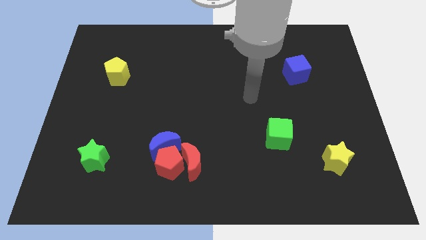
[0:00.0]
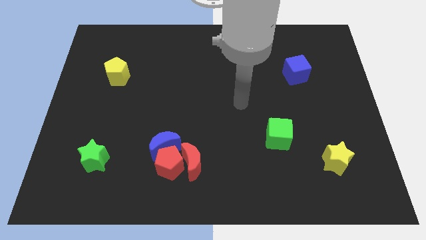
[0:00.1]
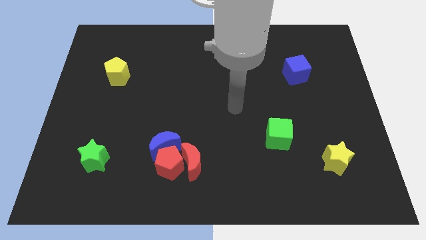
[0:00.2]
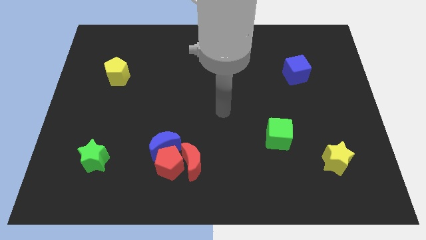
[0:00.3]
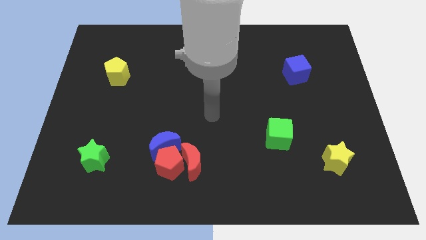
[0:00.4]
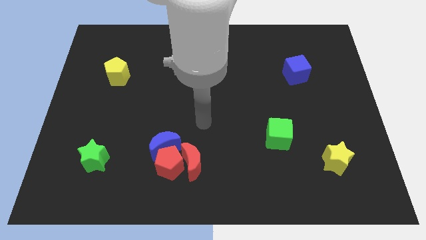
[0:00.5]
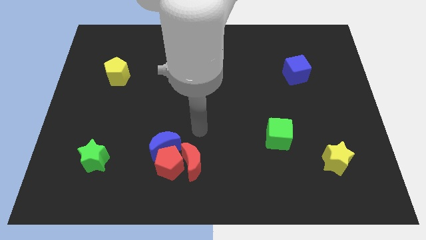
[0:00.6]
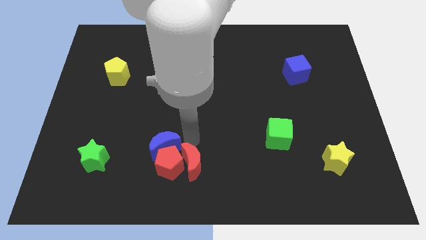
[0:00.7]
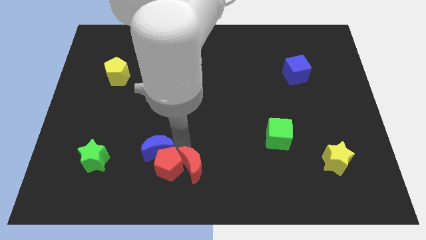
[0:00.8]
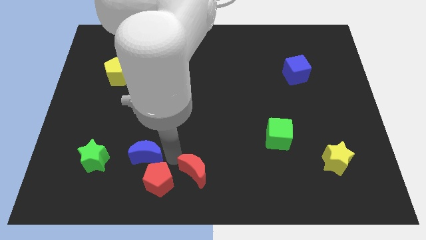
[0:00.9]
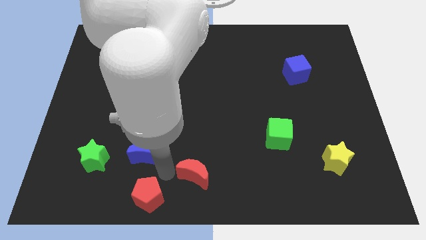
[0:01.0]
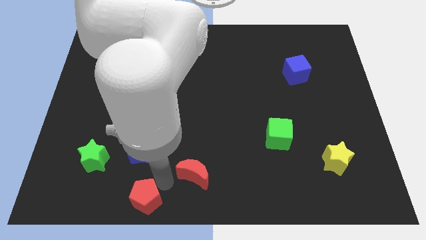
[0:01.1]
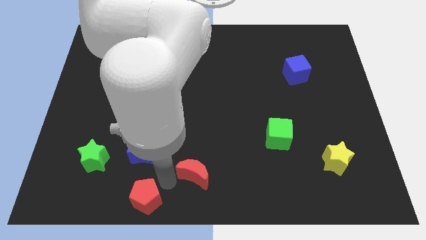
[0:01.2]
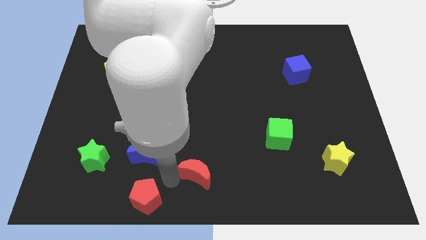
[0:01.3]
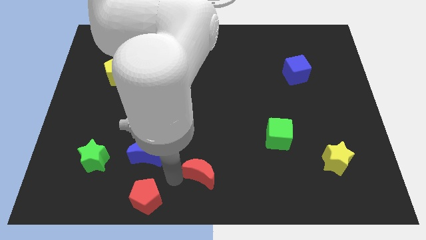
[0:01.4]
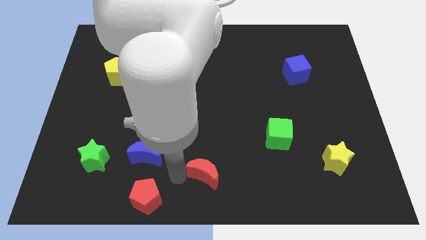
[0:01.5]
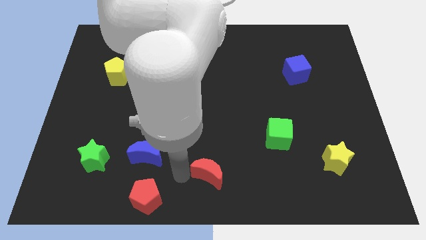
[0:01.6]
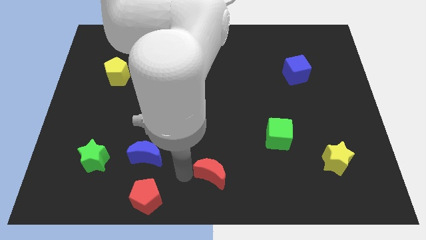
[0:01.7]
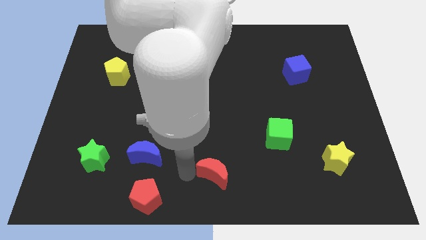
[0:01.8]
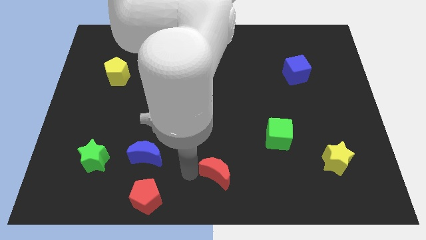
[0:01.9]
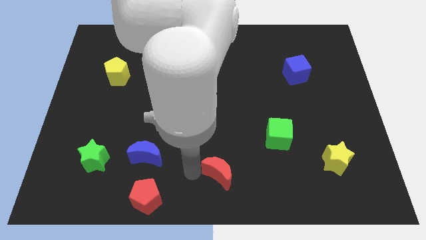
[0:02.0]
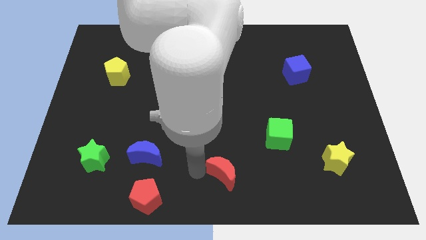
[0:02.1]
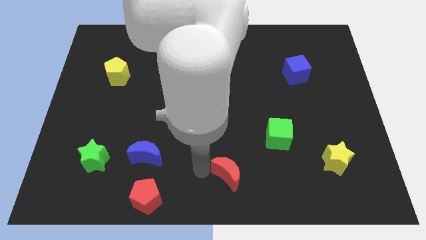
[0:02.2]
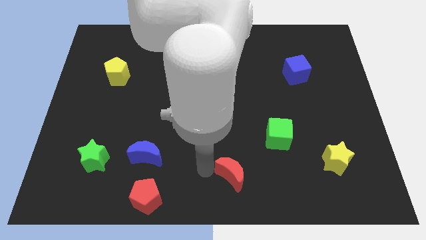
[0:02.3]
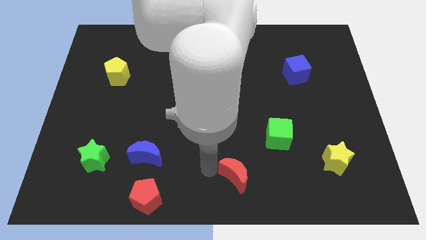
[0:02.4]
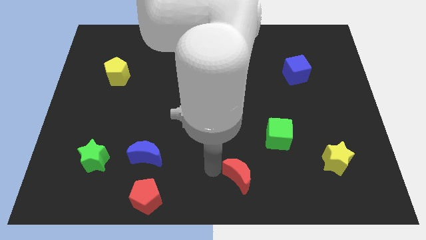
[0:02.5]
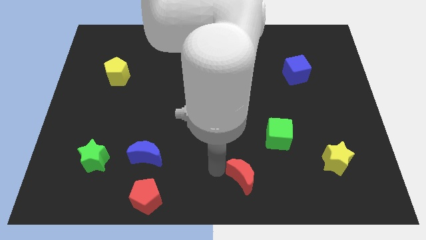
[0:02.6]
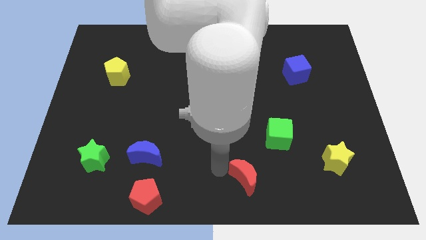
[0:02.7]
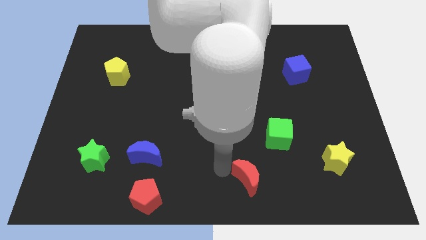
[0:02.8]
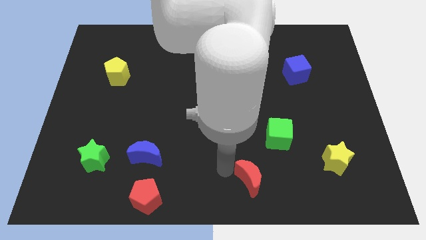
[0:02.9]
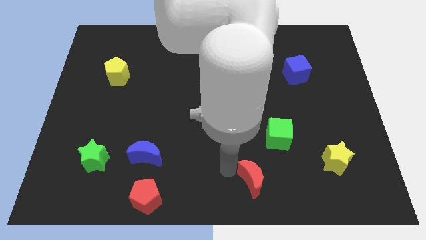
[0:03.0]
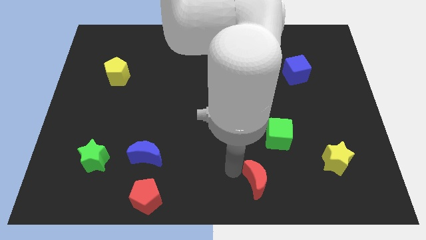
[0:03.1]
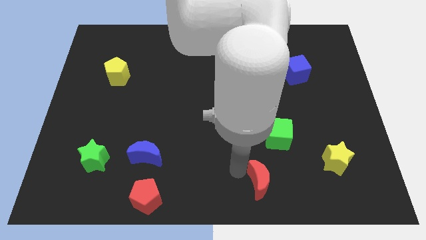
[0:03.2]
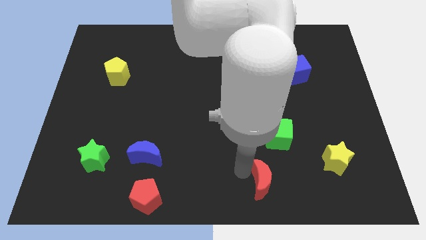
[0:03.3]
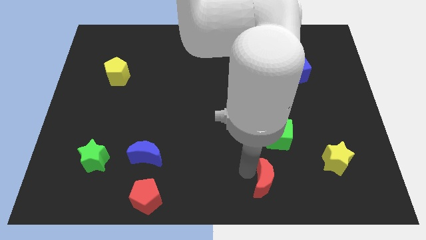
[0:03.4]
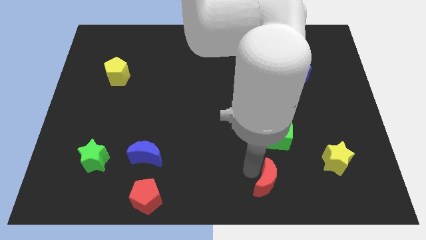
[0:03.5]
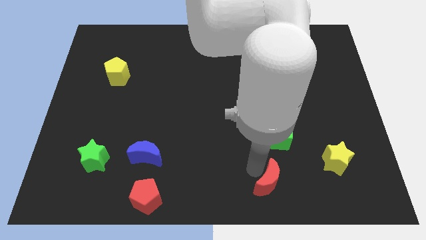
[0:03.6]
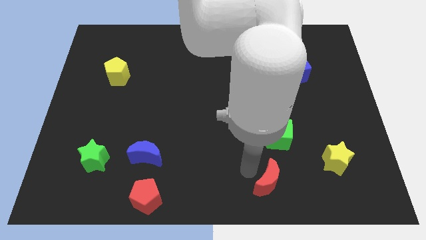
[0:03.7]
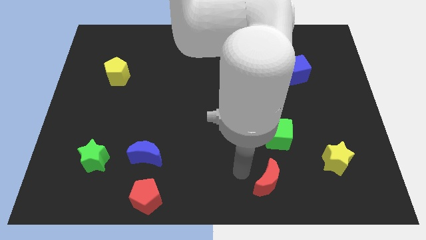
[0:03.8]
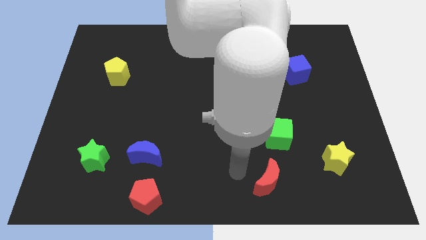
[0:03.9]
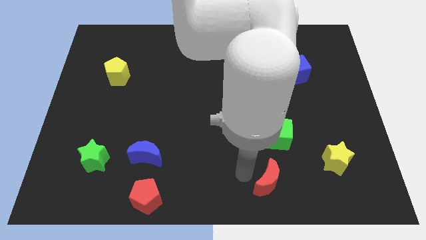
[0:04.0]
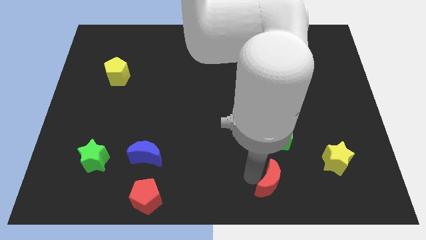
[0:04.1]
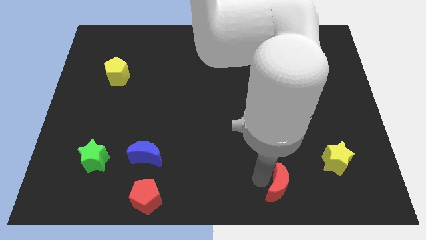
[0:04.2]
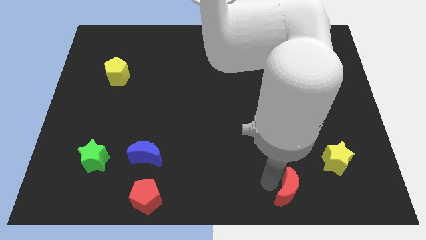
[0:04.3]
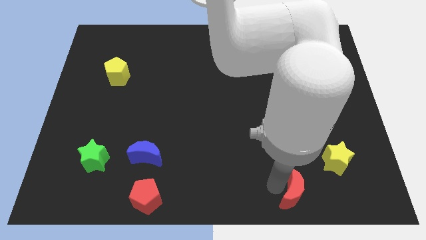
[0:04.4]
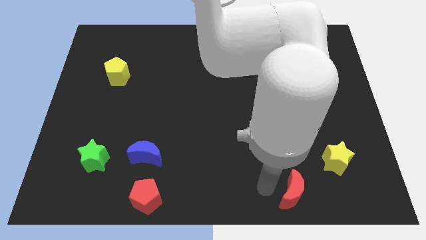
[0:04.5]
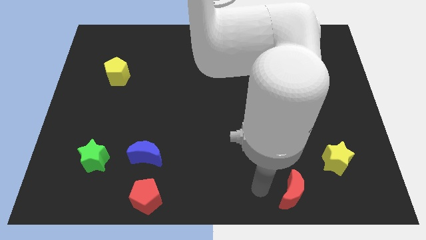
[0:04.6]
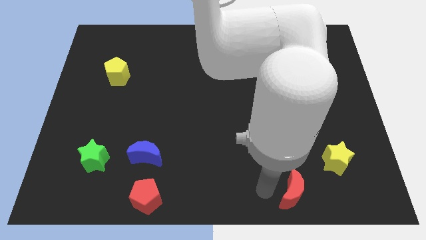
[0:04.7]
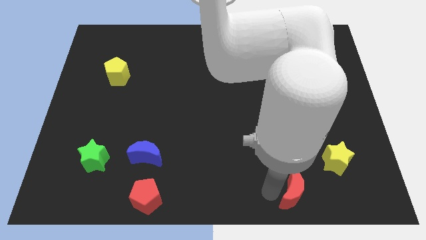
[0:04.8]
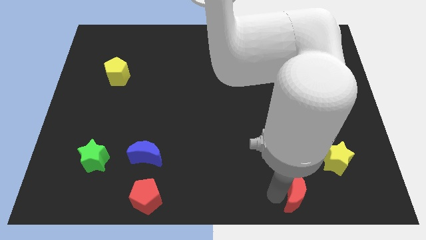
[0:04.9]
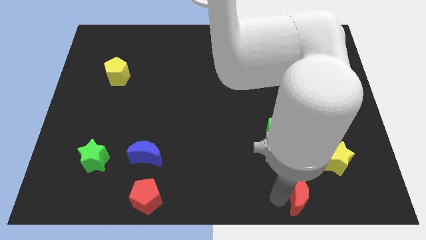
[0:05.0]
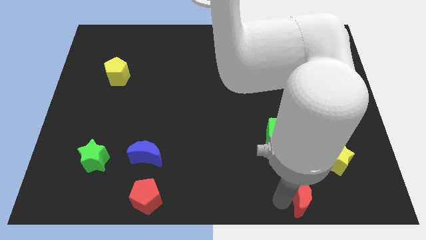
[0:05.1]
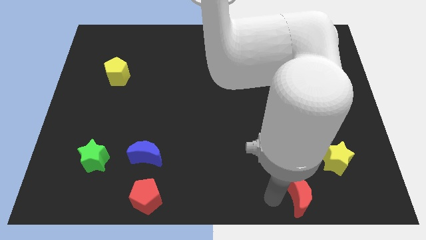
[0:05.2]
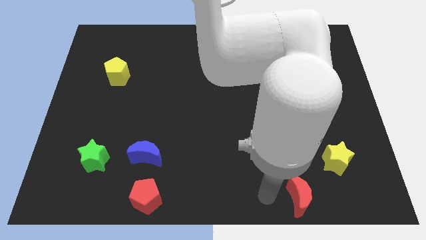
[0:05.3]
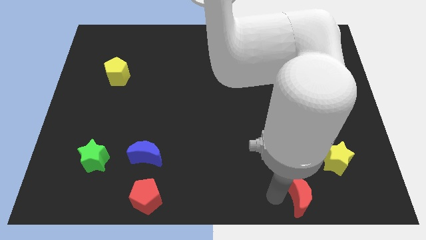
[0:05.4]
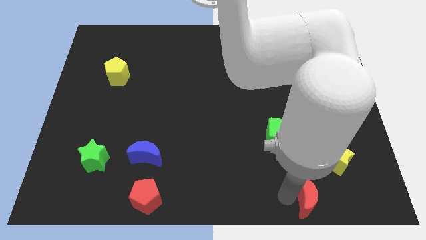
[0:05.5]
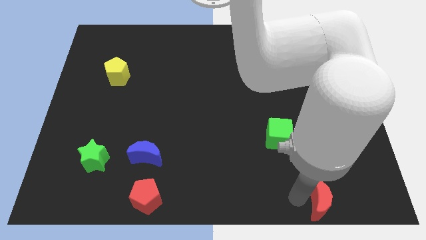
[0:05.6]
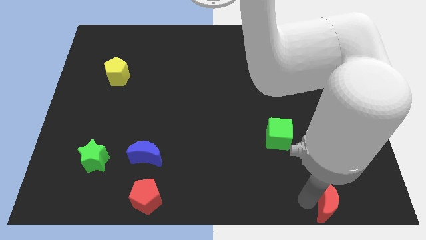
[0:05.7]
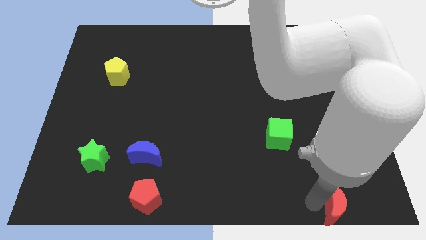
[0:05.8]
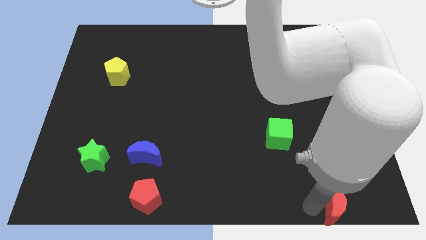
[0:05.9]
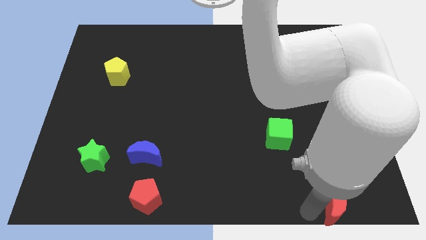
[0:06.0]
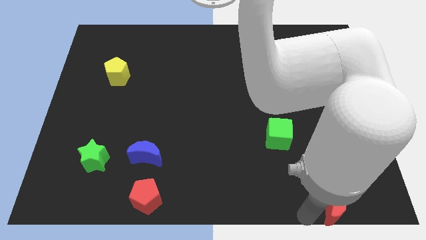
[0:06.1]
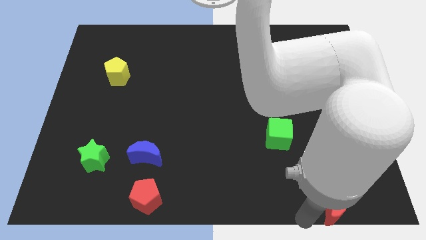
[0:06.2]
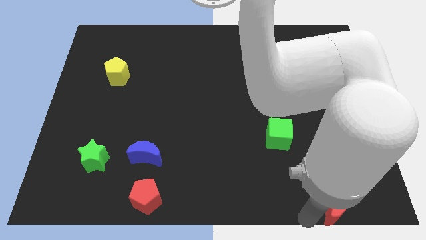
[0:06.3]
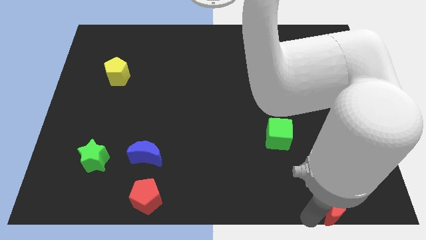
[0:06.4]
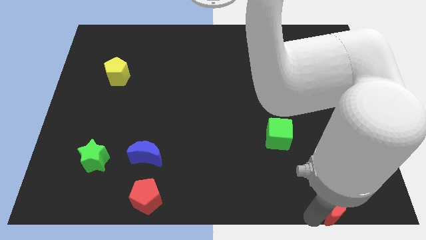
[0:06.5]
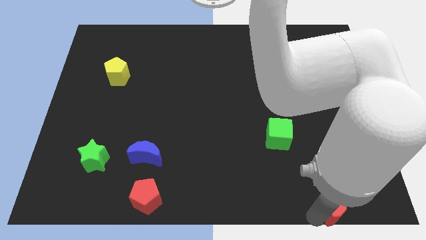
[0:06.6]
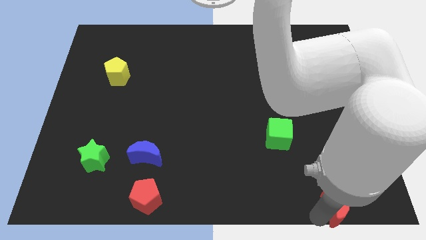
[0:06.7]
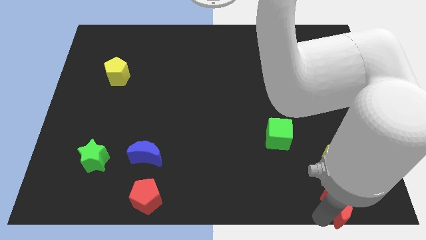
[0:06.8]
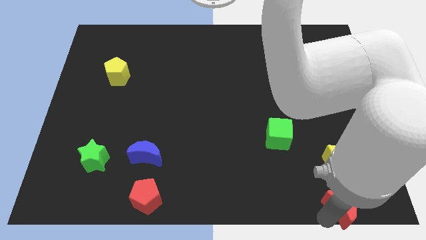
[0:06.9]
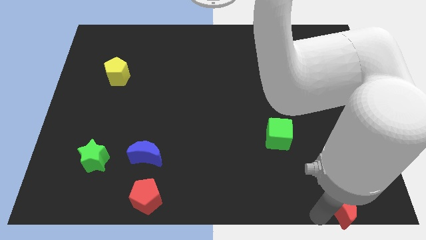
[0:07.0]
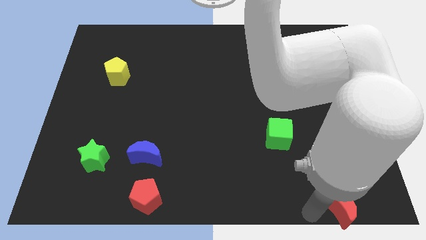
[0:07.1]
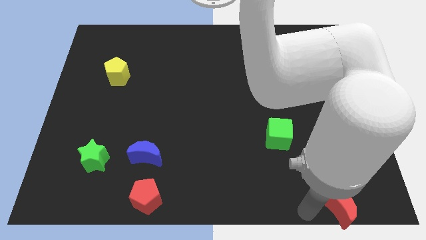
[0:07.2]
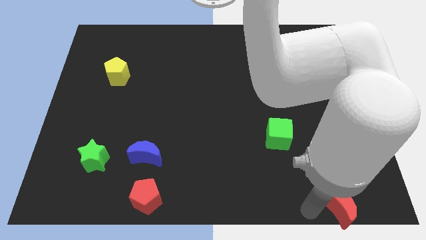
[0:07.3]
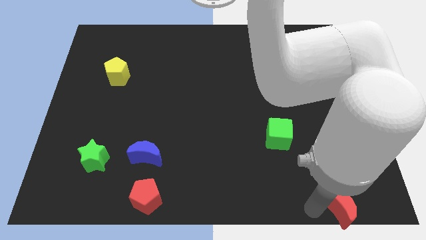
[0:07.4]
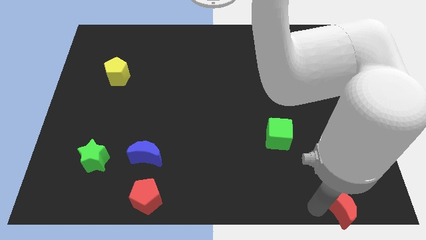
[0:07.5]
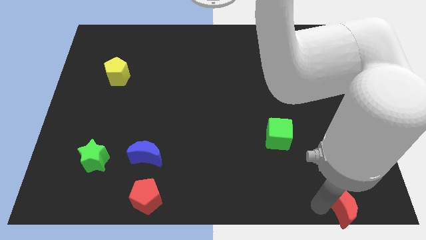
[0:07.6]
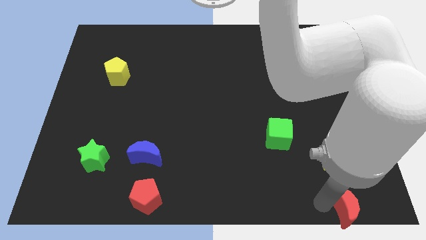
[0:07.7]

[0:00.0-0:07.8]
move the red moon to the bottom right corner
